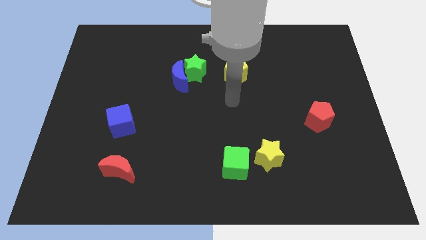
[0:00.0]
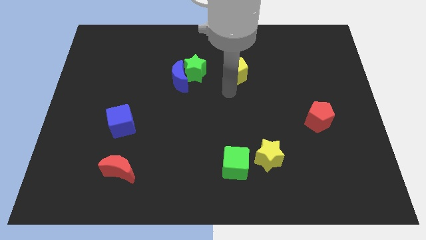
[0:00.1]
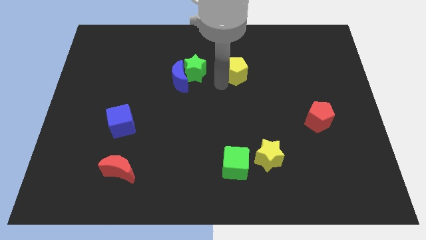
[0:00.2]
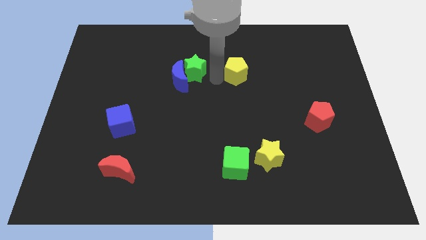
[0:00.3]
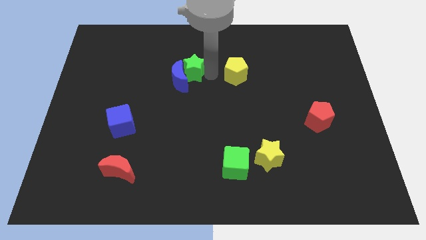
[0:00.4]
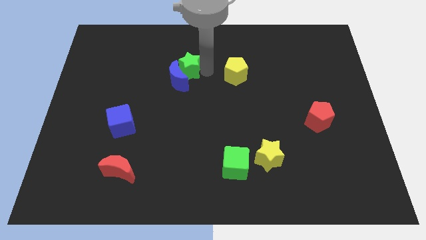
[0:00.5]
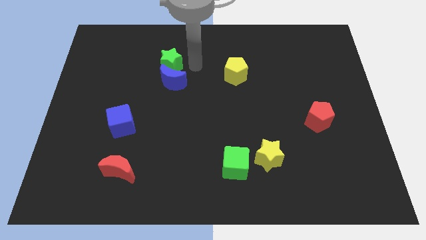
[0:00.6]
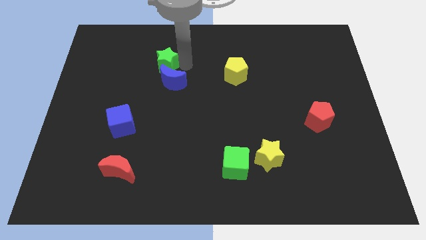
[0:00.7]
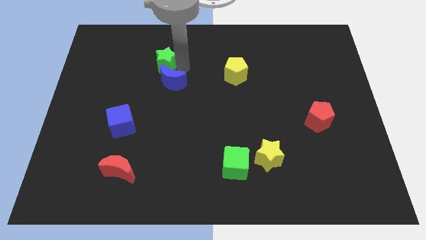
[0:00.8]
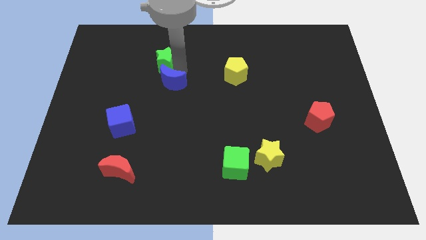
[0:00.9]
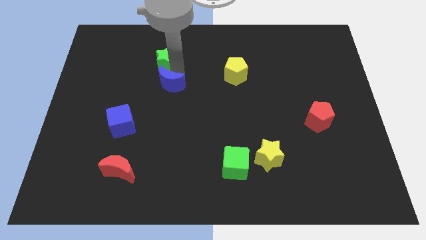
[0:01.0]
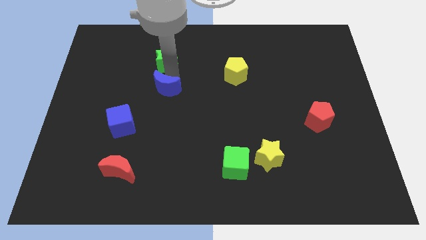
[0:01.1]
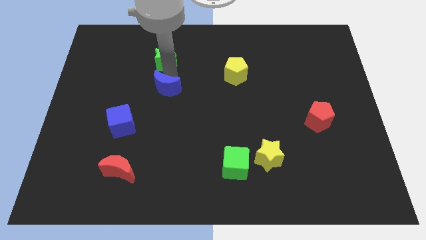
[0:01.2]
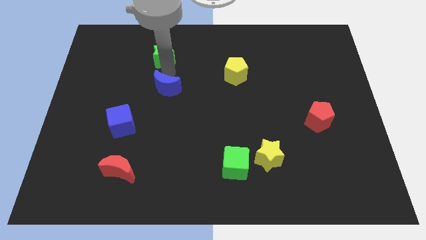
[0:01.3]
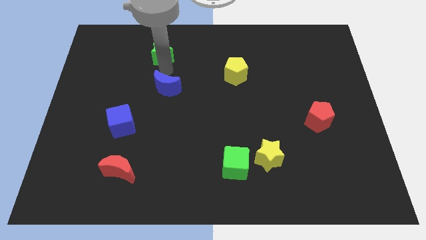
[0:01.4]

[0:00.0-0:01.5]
separate the blue moon from the green star

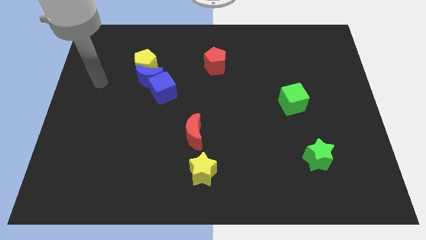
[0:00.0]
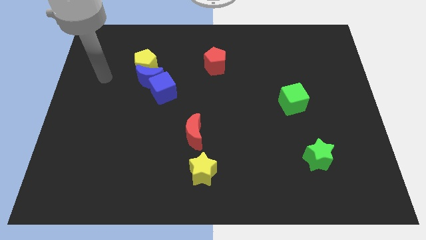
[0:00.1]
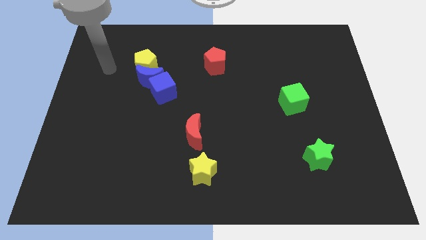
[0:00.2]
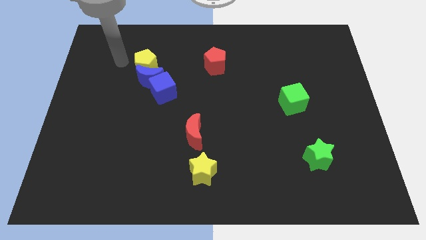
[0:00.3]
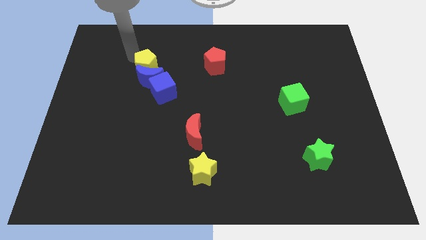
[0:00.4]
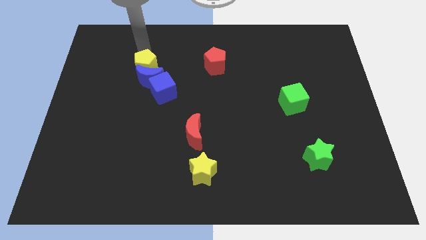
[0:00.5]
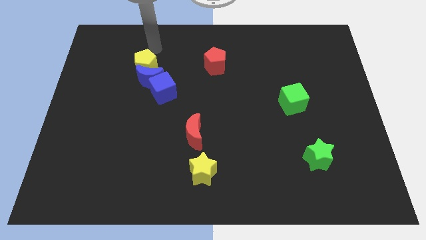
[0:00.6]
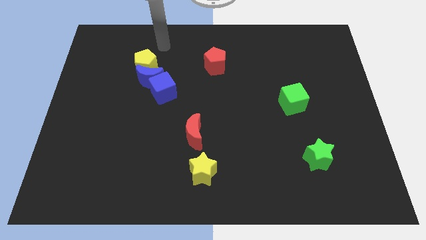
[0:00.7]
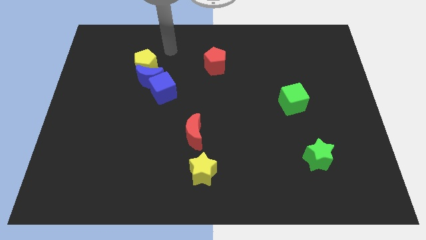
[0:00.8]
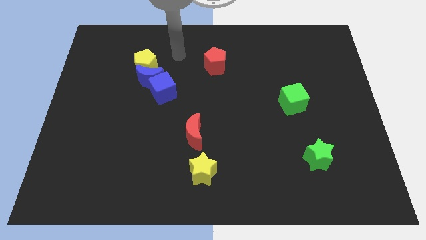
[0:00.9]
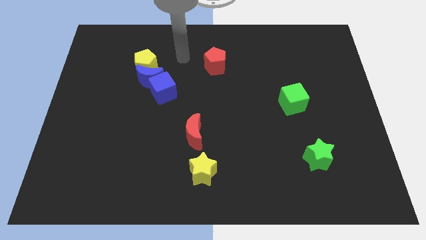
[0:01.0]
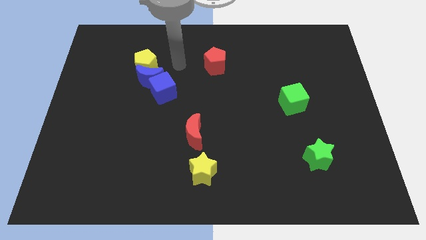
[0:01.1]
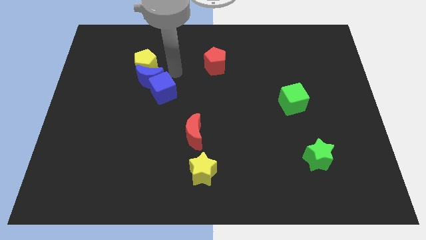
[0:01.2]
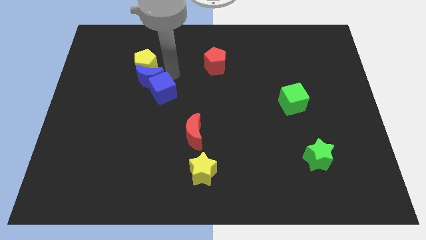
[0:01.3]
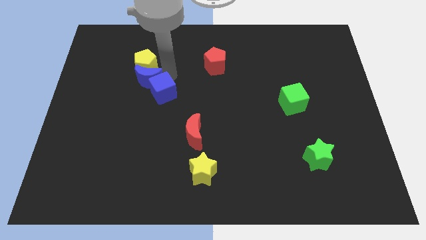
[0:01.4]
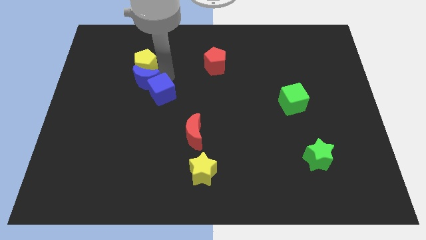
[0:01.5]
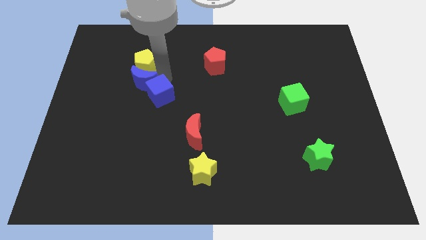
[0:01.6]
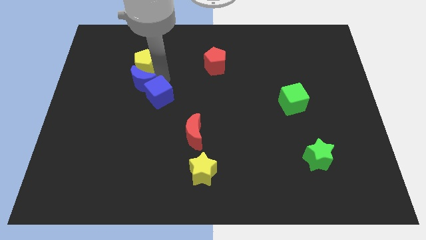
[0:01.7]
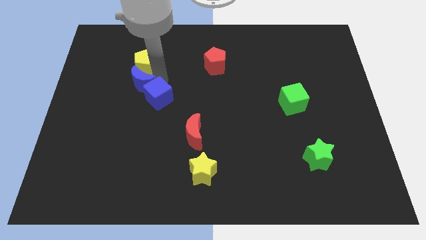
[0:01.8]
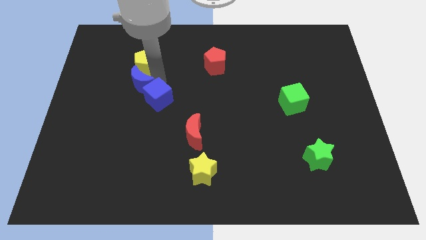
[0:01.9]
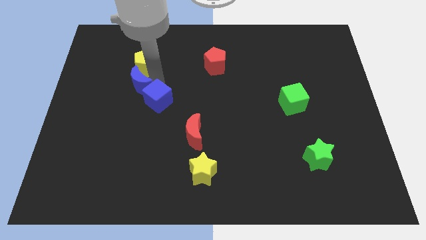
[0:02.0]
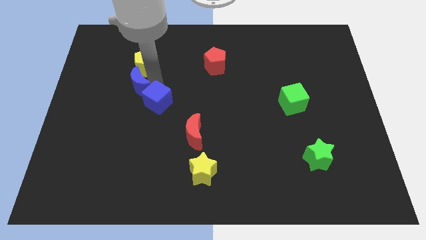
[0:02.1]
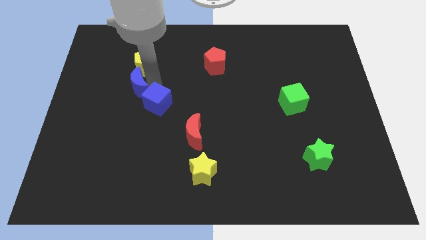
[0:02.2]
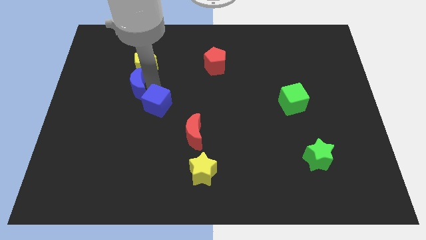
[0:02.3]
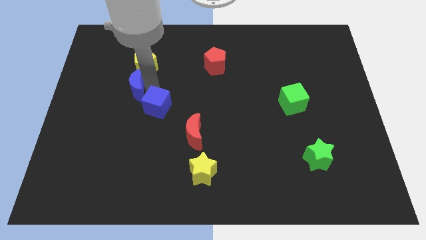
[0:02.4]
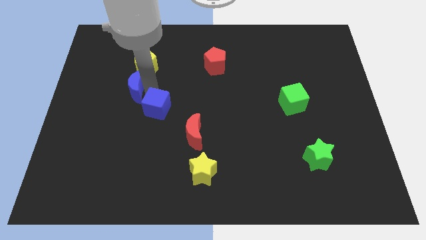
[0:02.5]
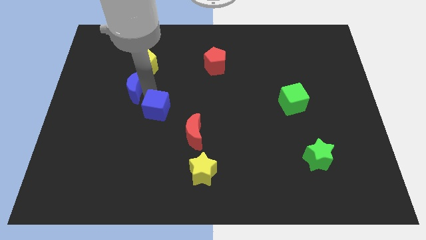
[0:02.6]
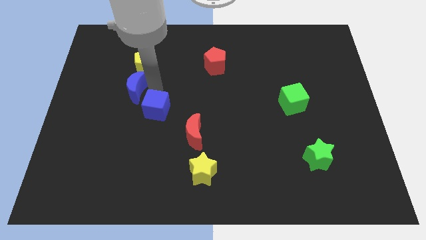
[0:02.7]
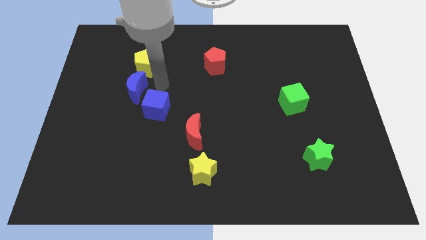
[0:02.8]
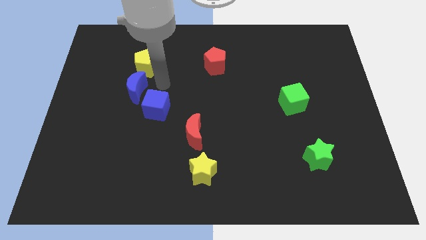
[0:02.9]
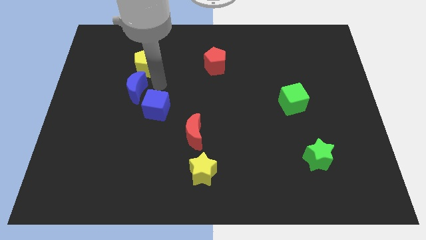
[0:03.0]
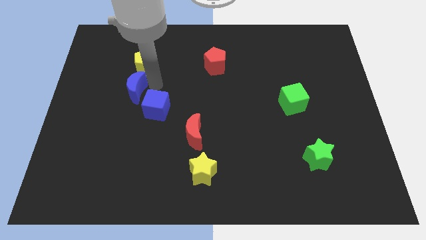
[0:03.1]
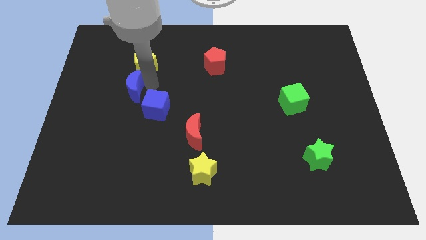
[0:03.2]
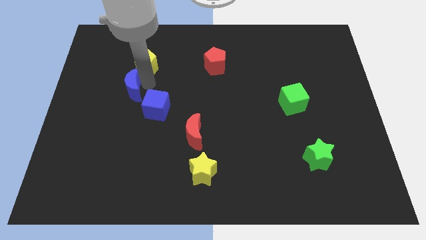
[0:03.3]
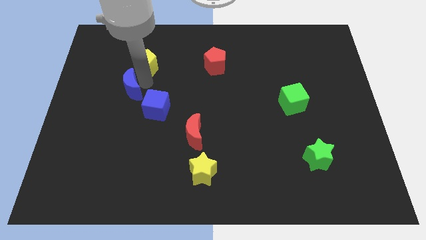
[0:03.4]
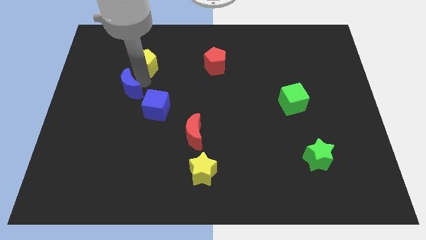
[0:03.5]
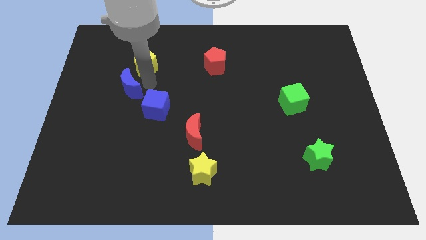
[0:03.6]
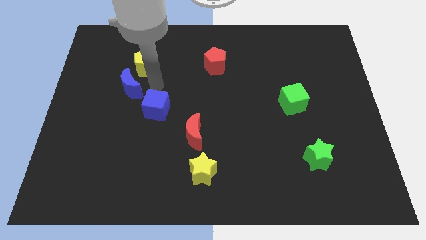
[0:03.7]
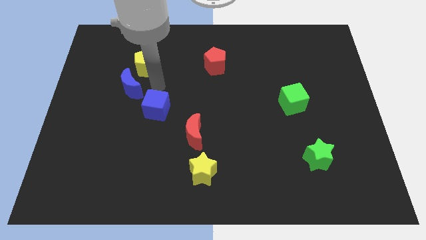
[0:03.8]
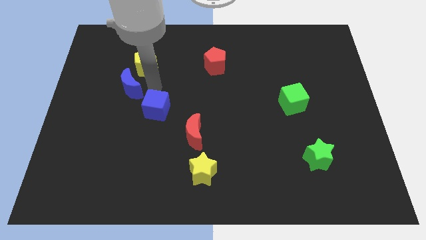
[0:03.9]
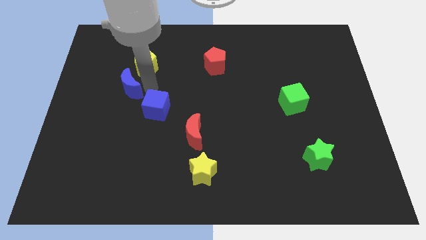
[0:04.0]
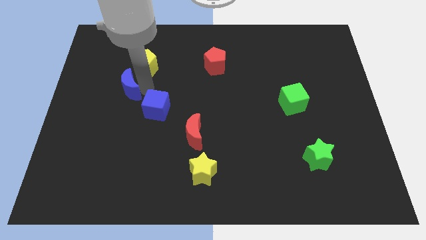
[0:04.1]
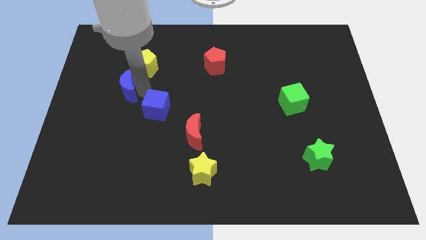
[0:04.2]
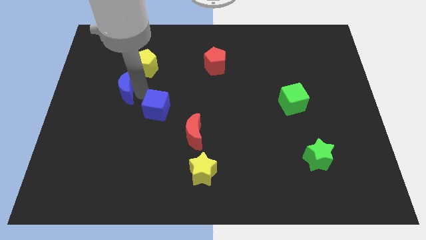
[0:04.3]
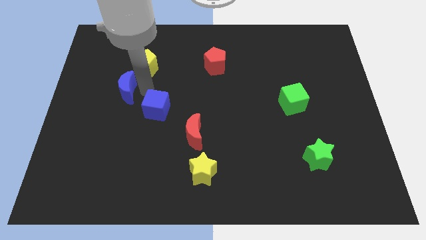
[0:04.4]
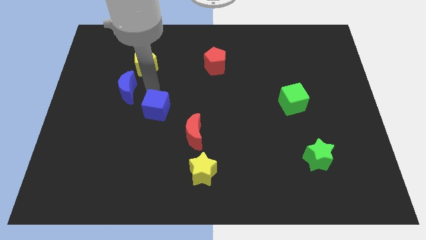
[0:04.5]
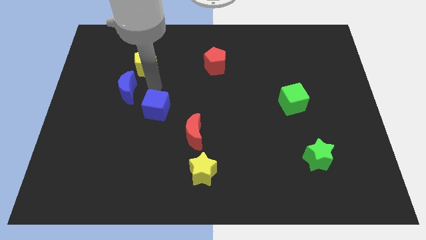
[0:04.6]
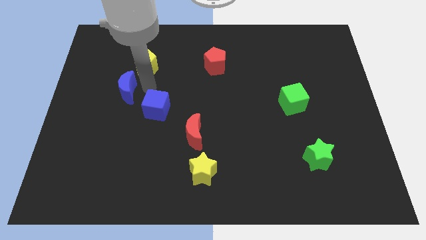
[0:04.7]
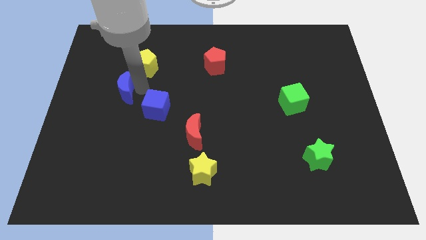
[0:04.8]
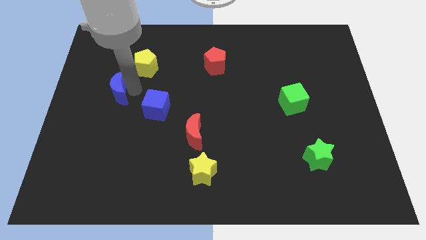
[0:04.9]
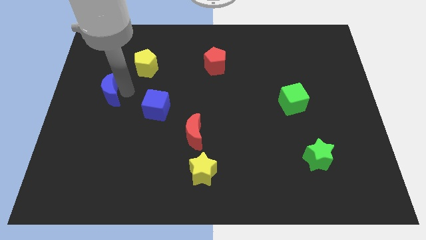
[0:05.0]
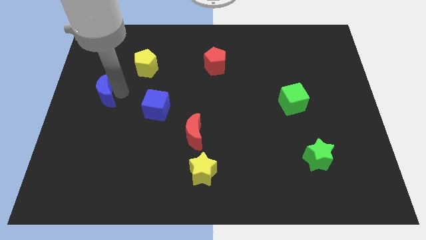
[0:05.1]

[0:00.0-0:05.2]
separate the blue moon from the yellow pentagon and blue cube

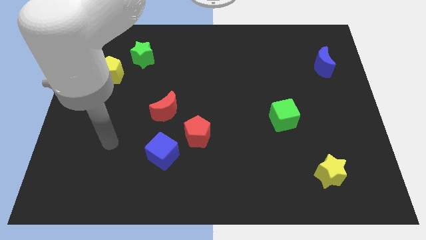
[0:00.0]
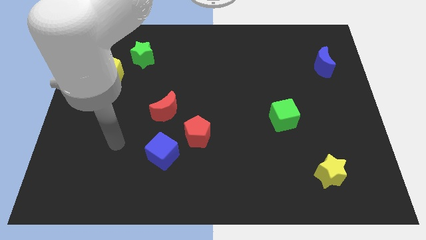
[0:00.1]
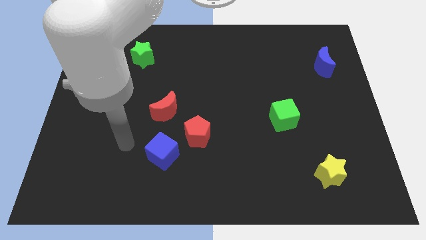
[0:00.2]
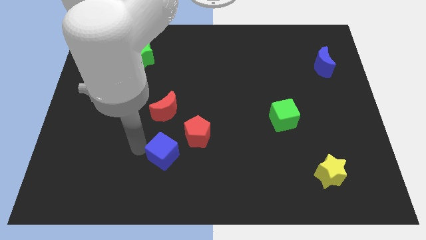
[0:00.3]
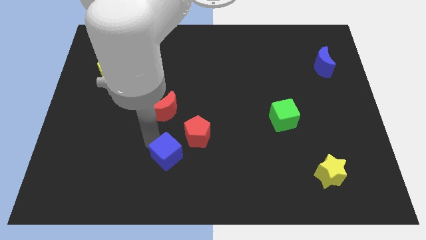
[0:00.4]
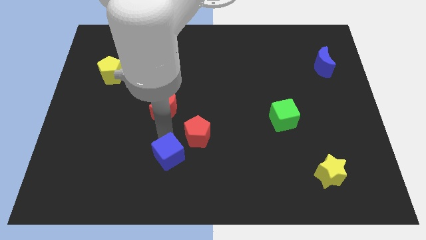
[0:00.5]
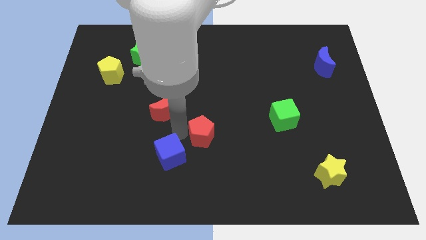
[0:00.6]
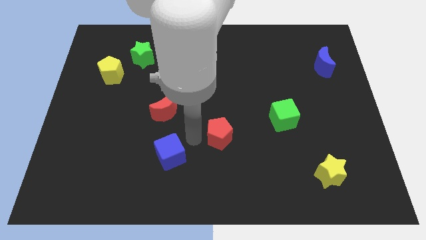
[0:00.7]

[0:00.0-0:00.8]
move the blue cube away from the red pentagon

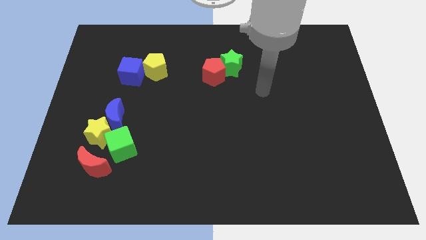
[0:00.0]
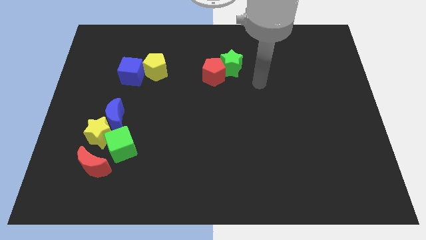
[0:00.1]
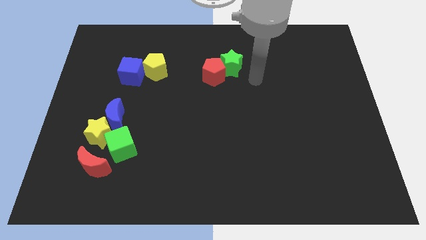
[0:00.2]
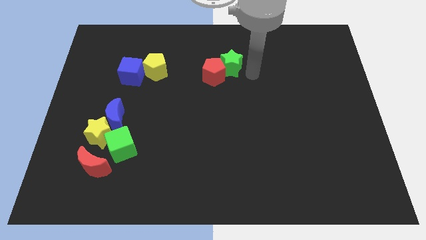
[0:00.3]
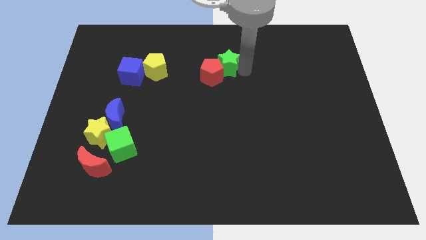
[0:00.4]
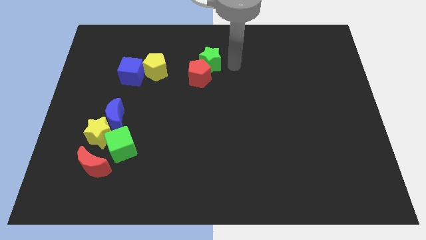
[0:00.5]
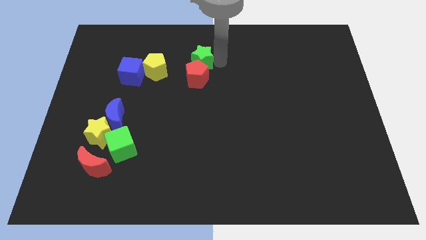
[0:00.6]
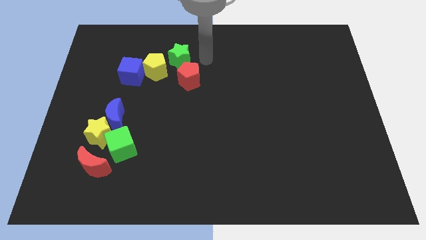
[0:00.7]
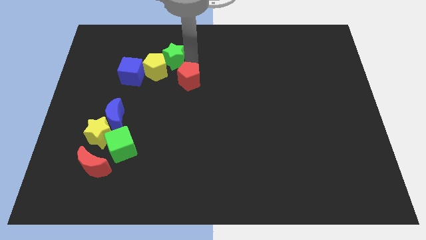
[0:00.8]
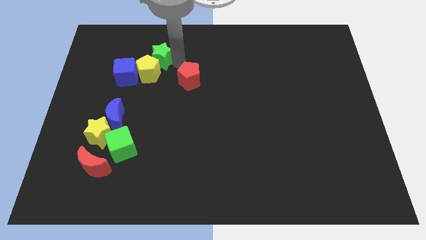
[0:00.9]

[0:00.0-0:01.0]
pull the red pentagon apart from the green star

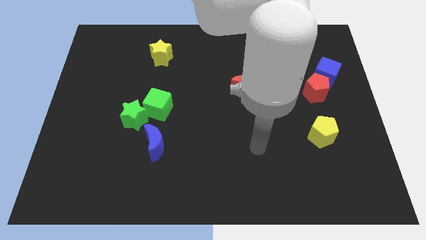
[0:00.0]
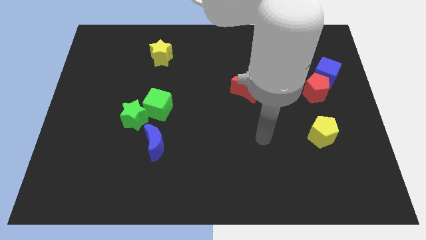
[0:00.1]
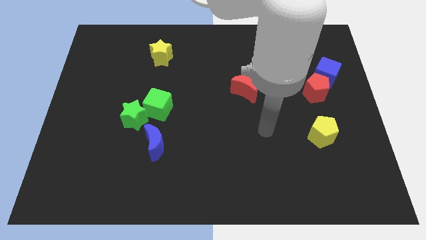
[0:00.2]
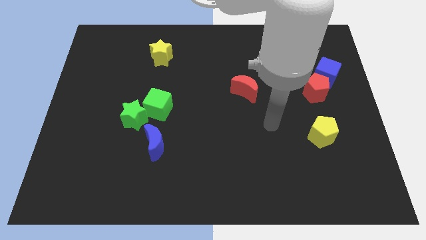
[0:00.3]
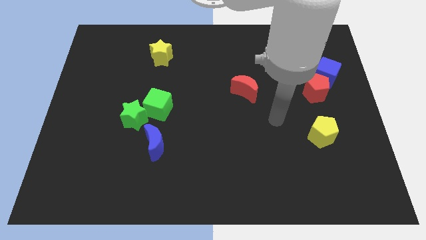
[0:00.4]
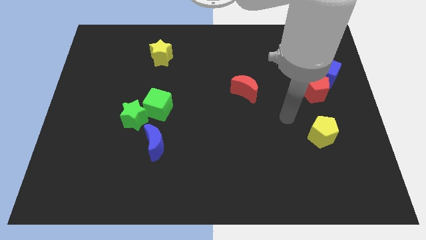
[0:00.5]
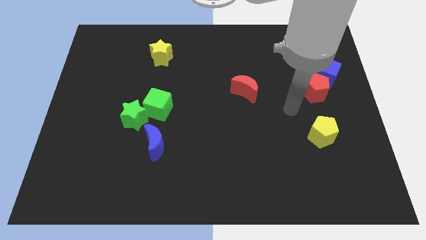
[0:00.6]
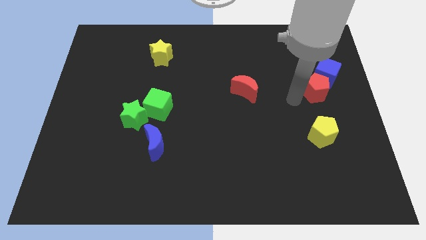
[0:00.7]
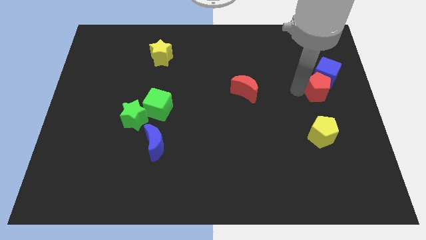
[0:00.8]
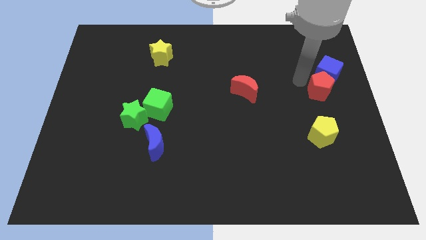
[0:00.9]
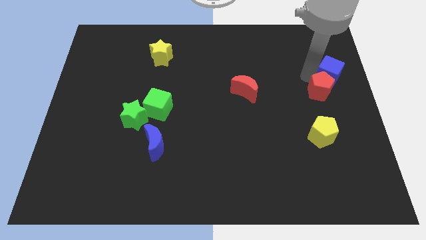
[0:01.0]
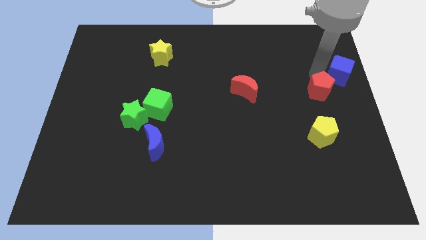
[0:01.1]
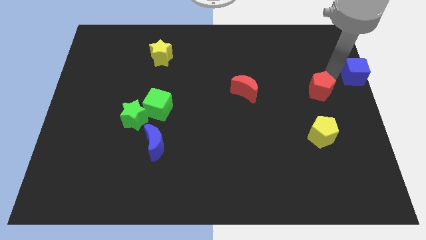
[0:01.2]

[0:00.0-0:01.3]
separate the red pentagon from the blue cube
